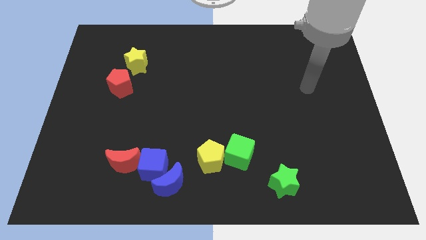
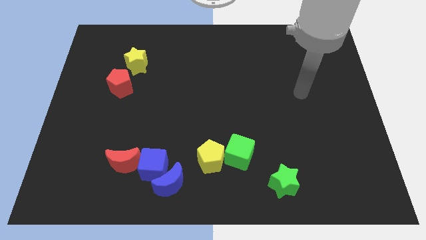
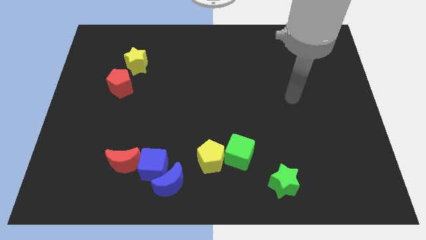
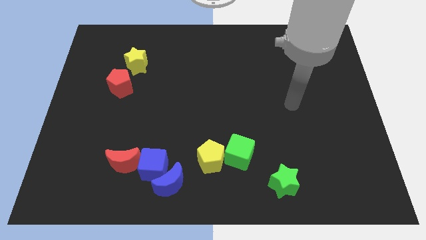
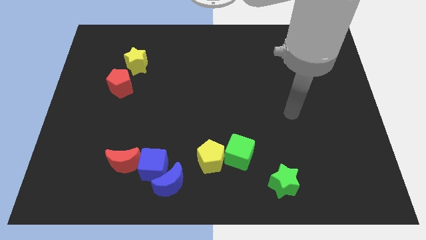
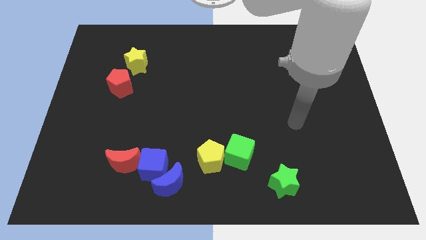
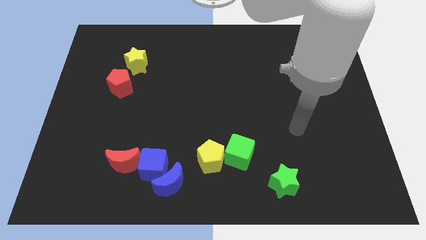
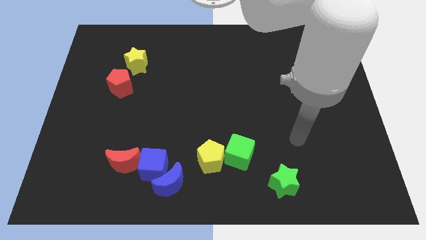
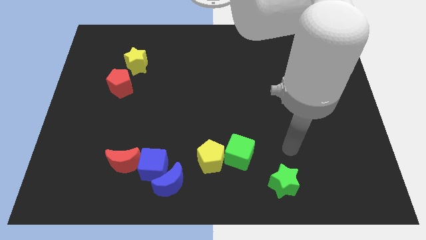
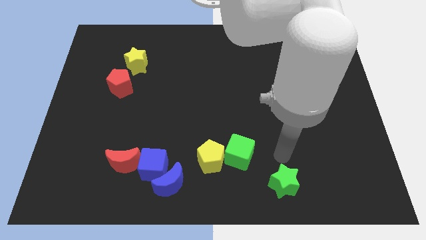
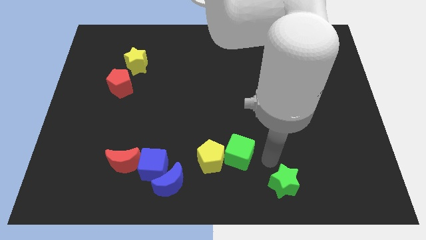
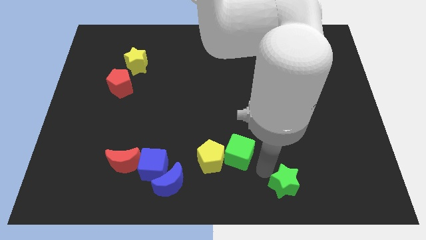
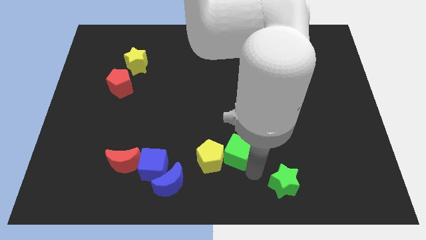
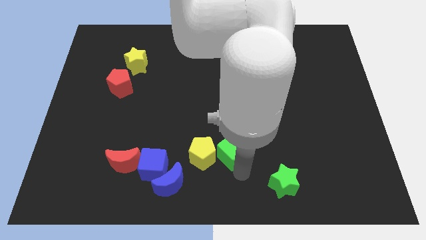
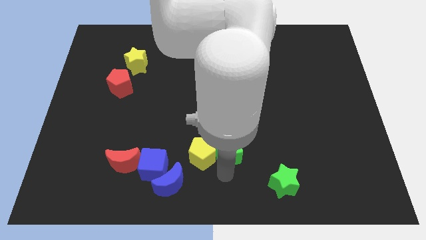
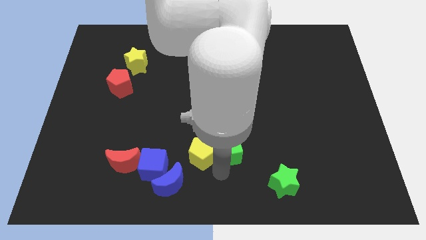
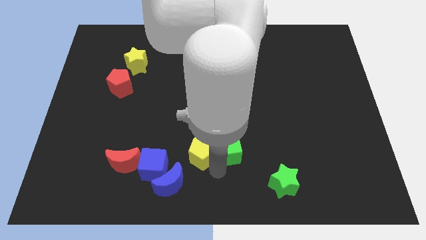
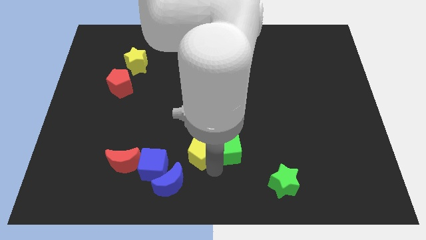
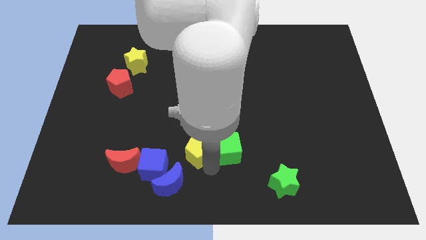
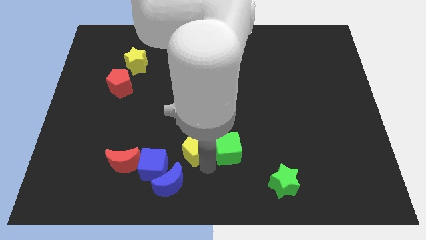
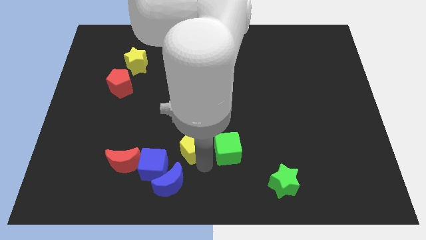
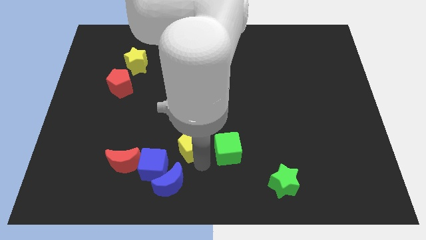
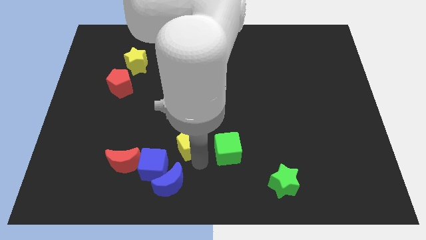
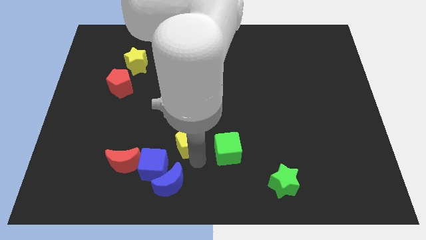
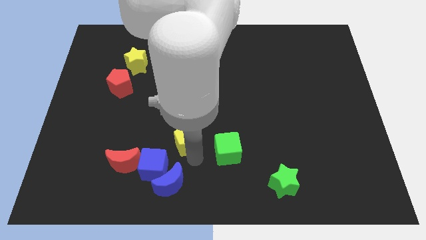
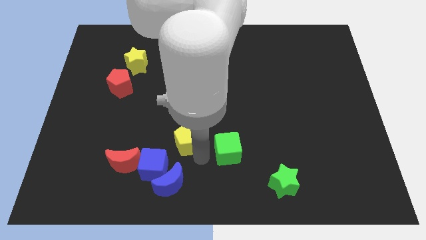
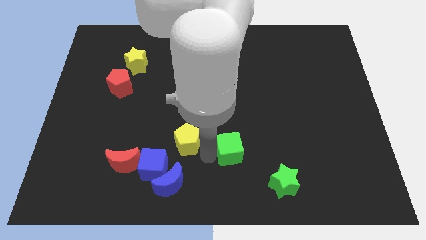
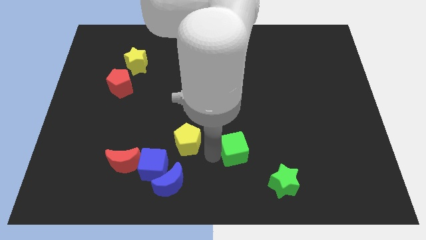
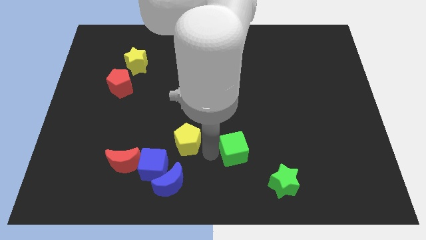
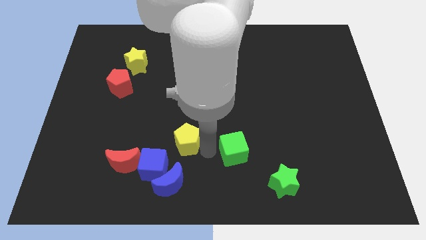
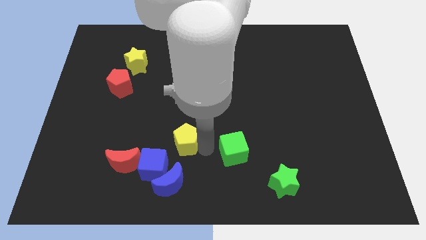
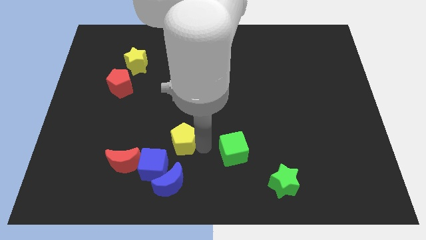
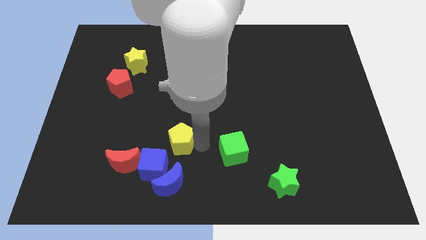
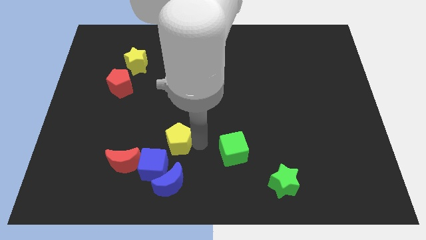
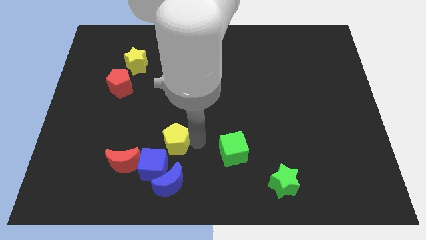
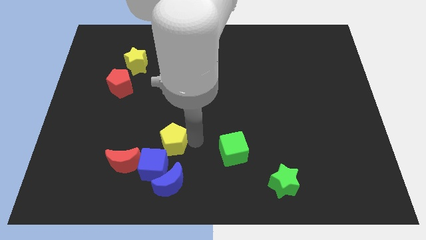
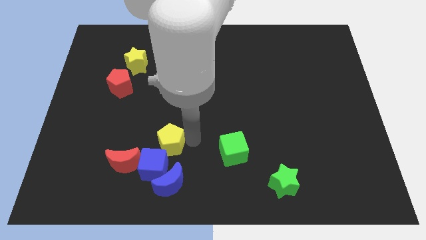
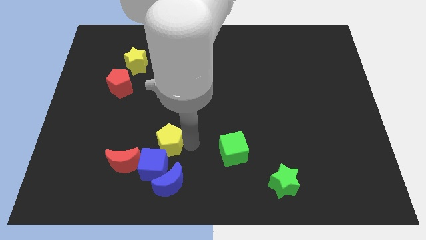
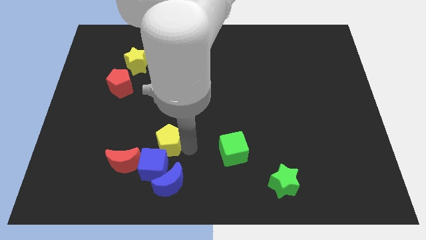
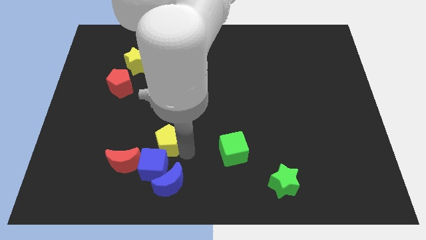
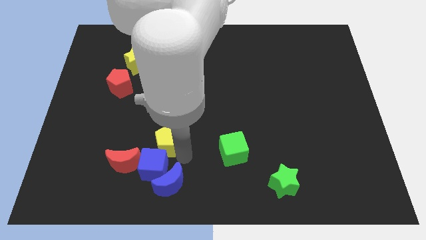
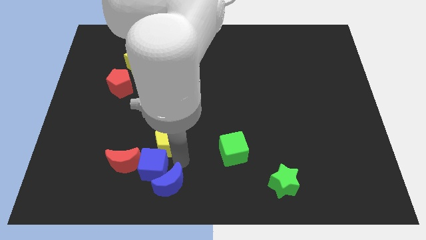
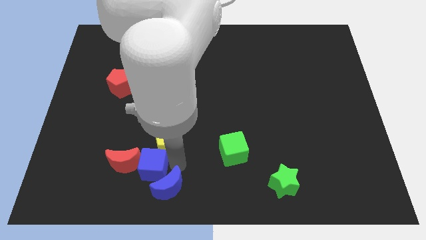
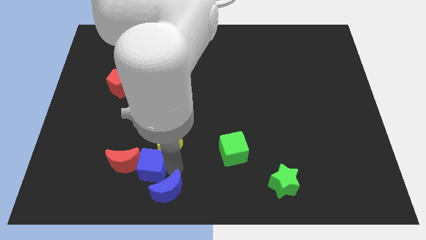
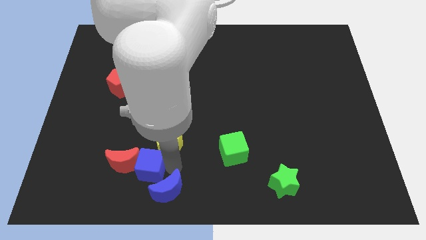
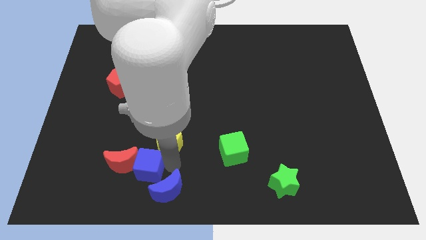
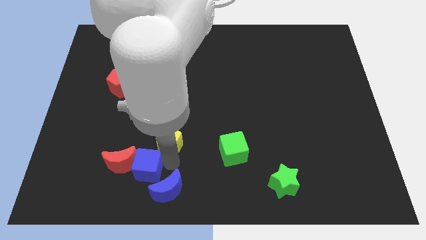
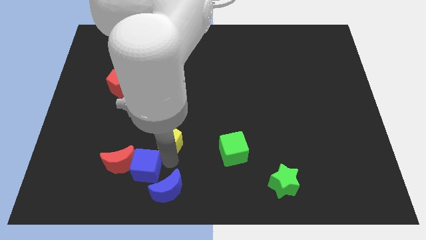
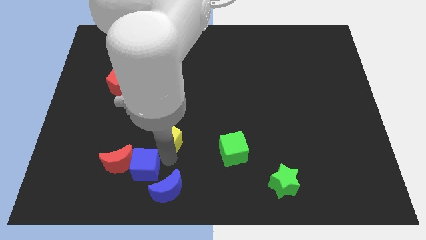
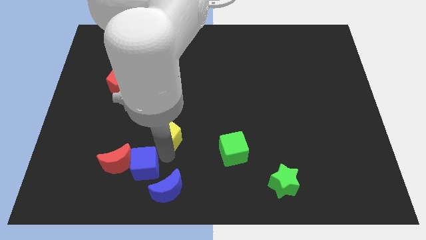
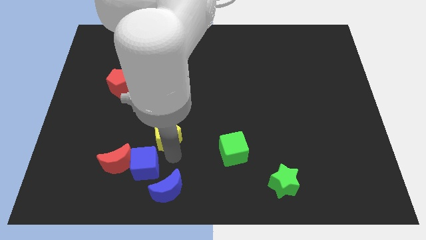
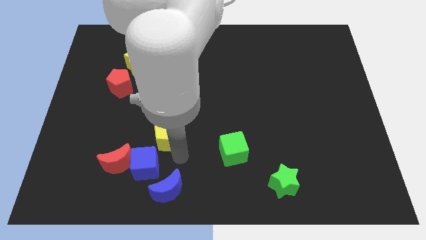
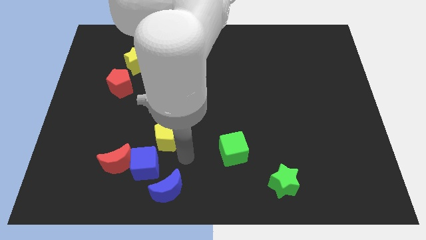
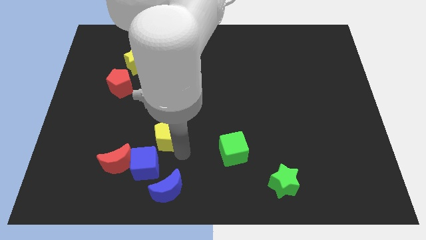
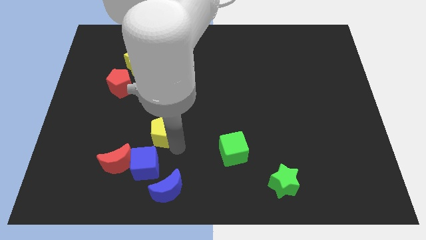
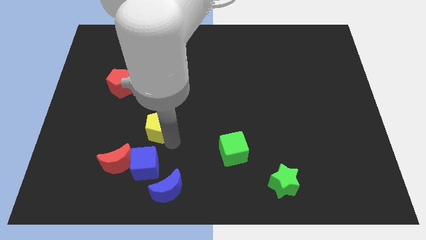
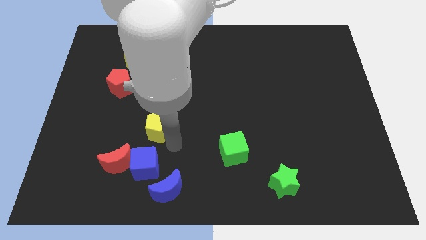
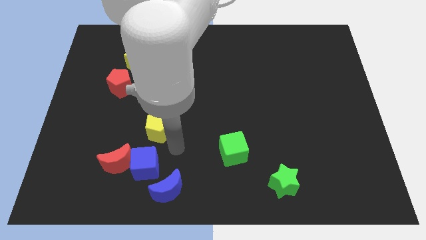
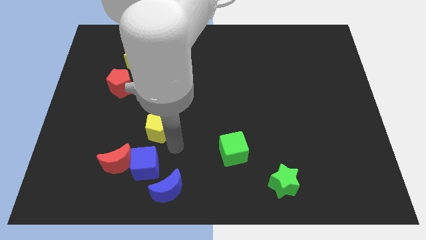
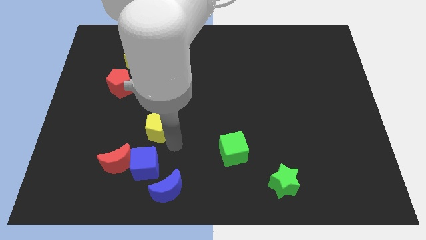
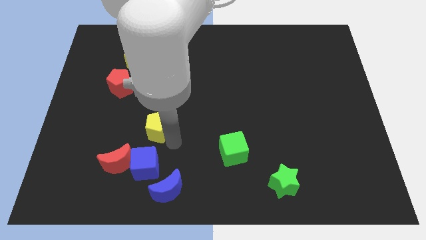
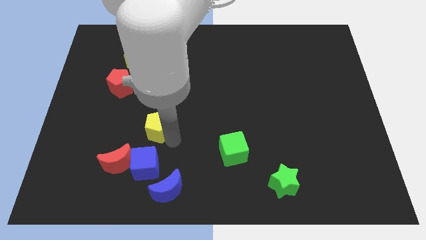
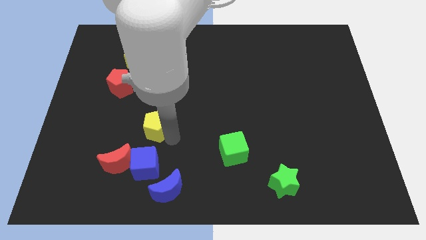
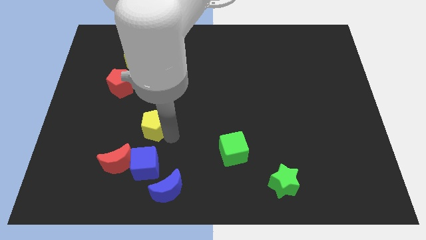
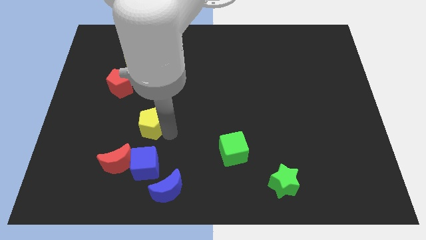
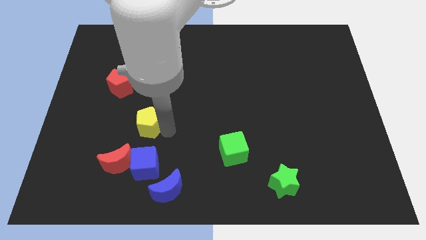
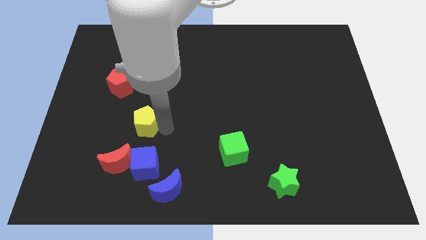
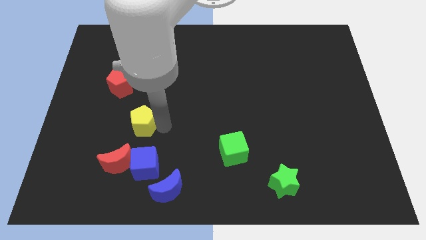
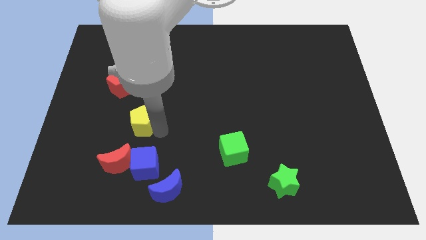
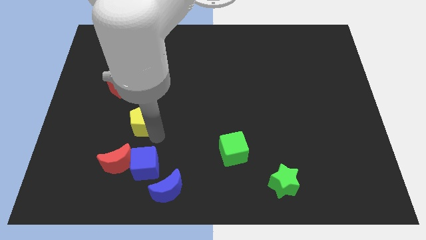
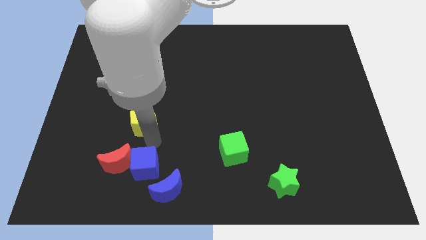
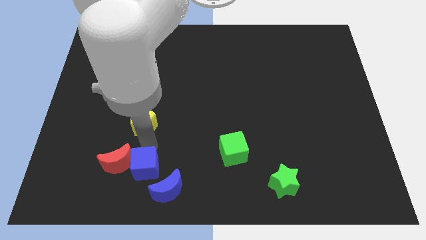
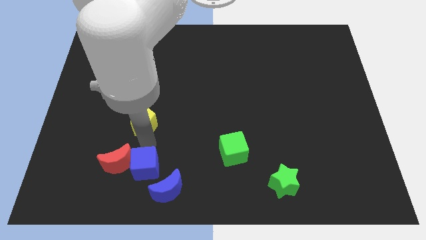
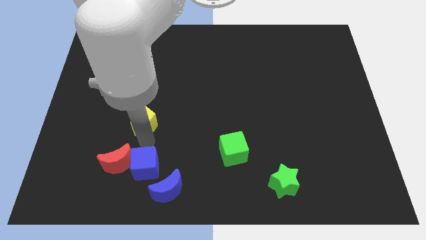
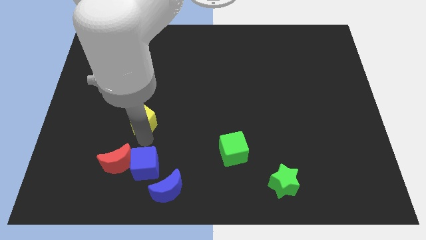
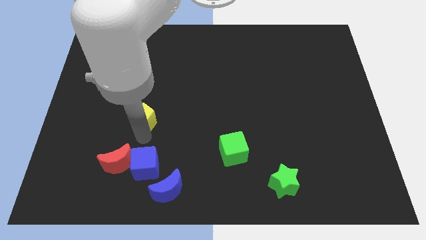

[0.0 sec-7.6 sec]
push the yellow pentagon to the bottom right side of the red pentagon
